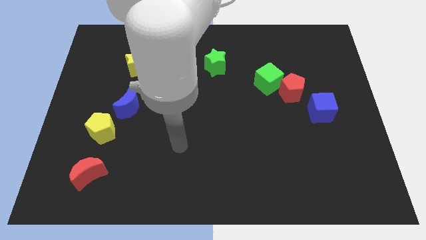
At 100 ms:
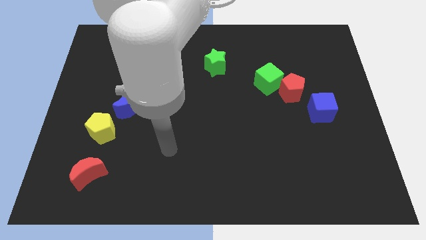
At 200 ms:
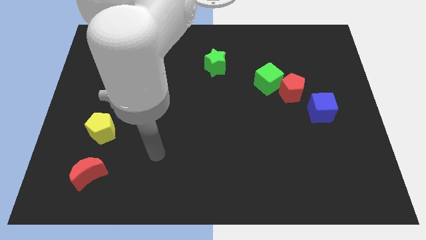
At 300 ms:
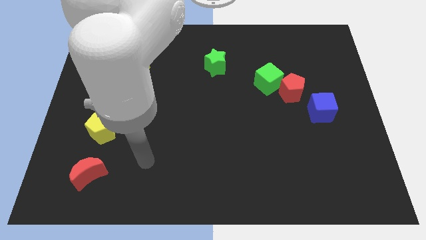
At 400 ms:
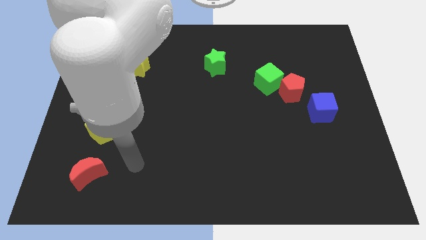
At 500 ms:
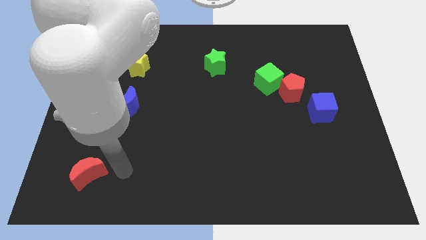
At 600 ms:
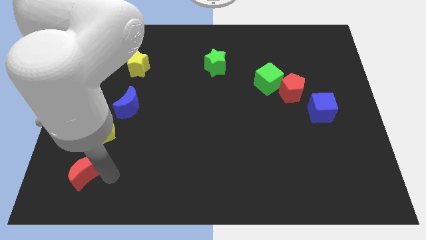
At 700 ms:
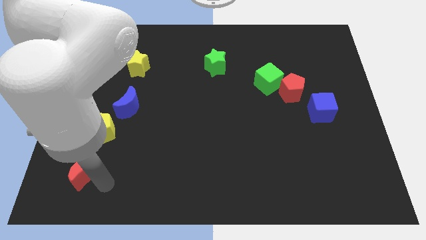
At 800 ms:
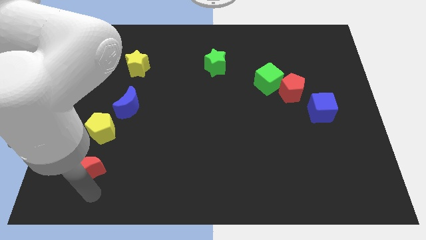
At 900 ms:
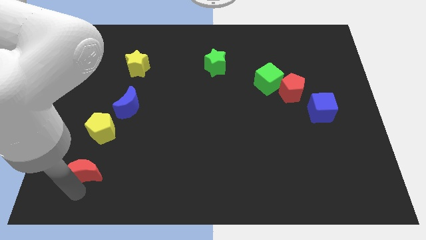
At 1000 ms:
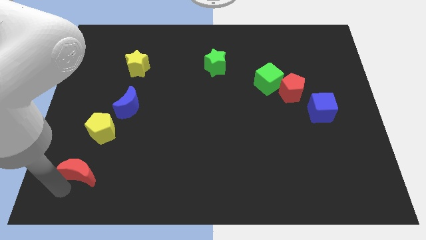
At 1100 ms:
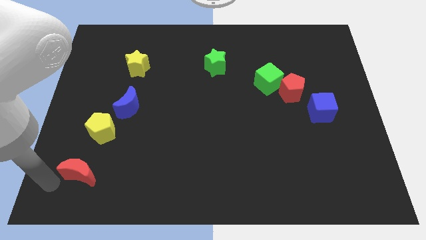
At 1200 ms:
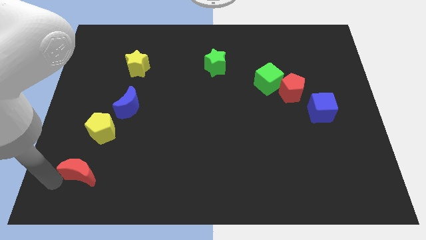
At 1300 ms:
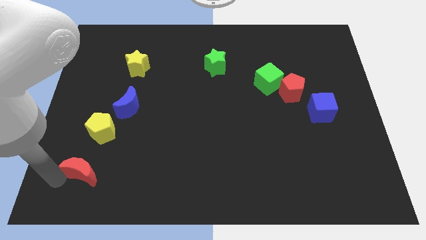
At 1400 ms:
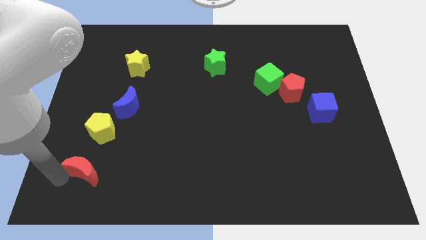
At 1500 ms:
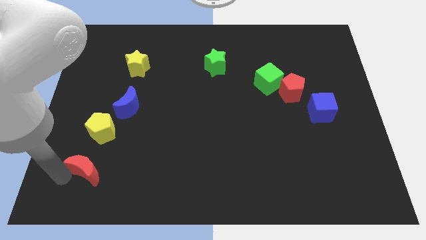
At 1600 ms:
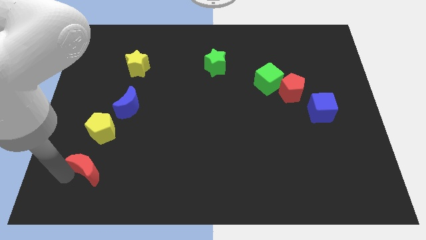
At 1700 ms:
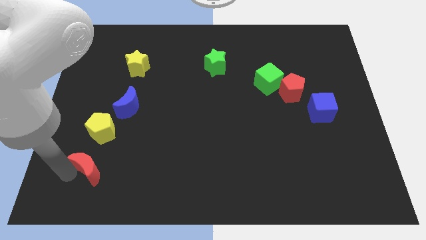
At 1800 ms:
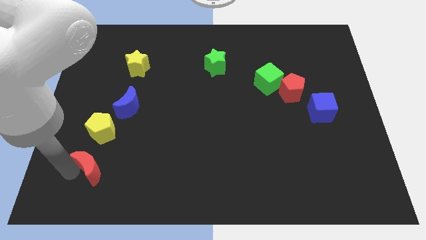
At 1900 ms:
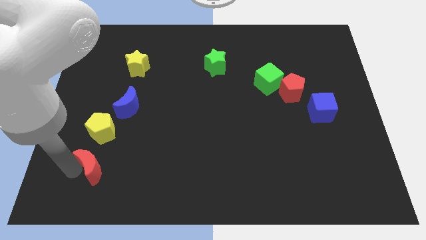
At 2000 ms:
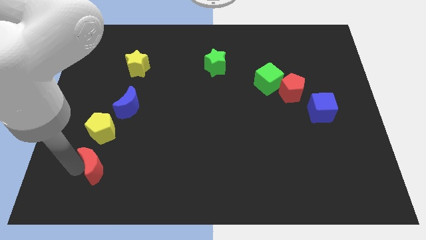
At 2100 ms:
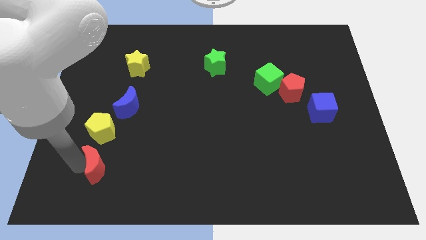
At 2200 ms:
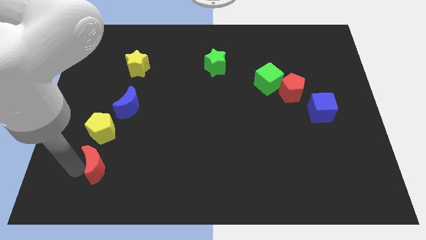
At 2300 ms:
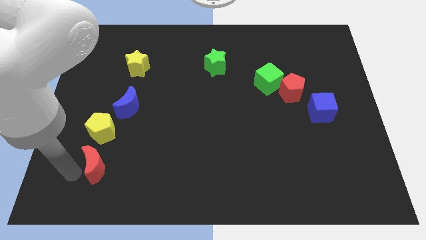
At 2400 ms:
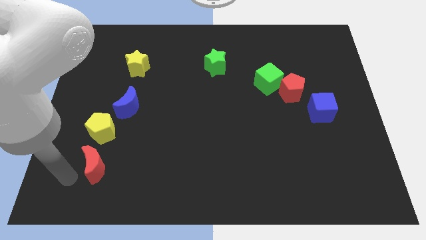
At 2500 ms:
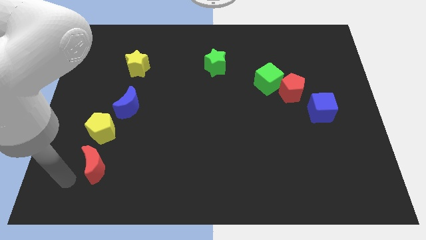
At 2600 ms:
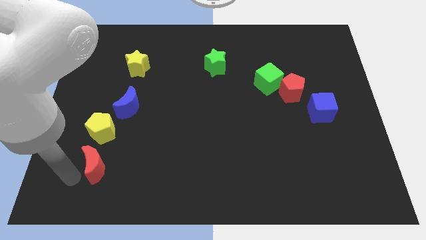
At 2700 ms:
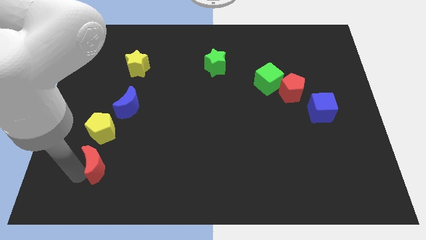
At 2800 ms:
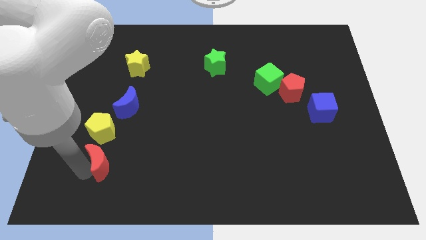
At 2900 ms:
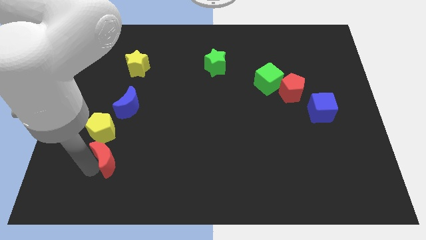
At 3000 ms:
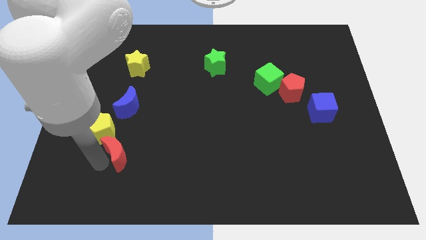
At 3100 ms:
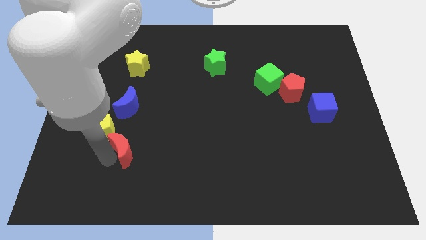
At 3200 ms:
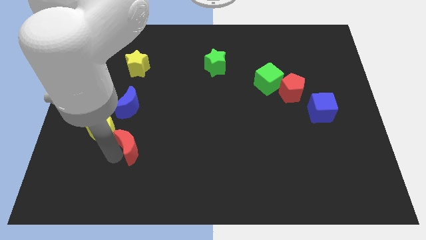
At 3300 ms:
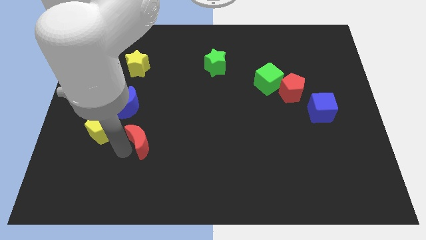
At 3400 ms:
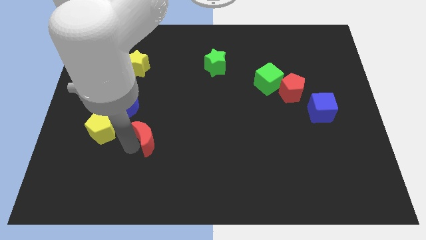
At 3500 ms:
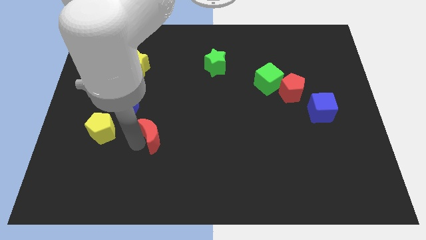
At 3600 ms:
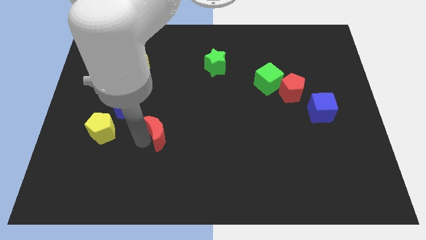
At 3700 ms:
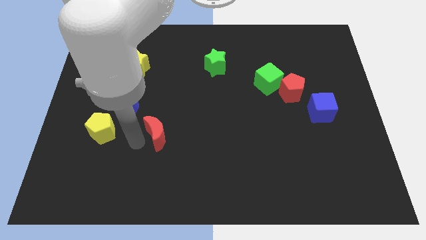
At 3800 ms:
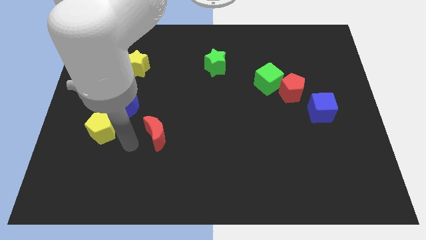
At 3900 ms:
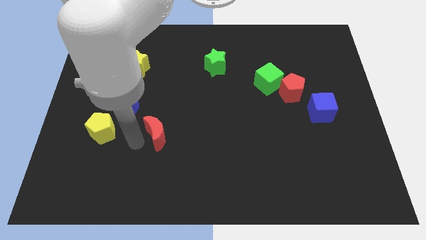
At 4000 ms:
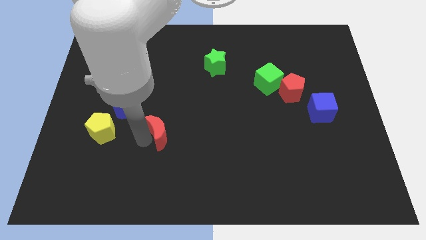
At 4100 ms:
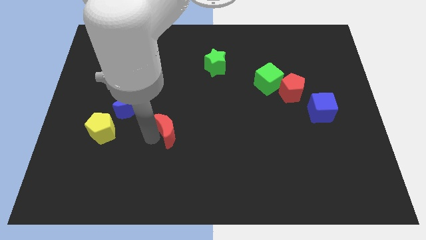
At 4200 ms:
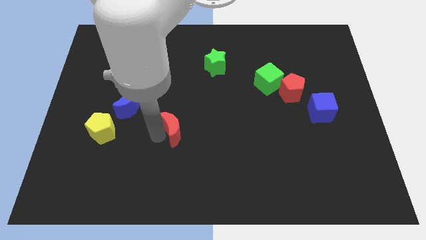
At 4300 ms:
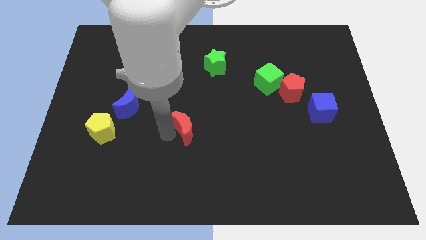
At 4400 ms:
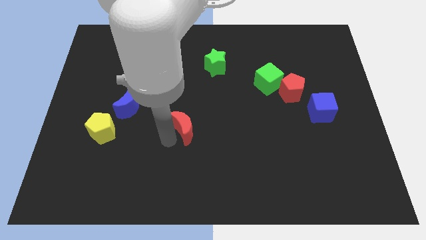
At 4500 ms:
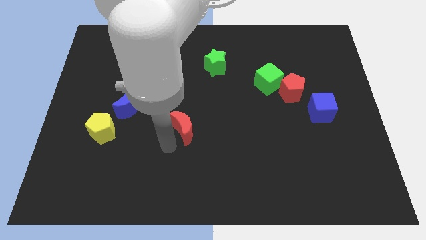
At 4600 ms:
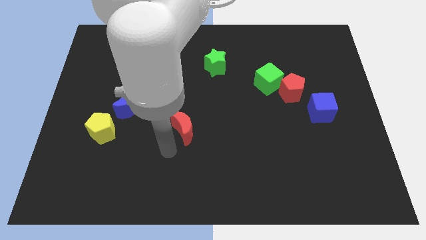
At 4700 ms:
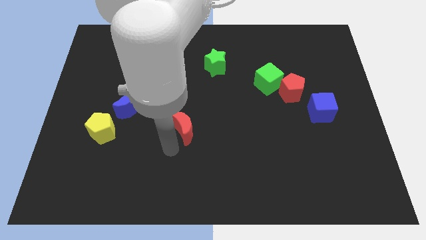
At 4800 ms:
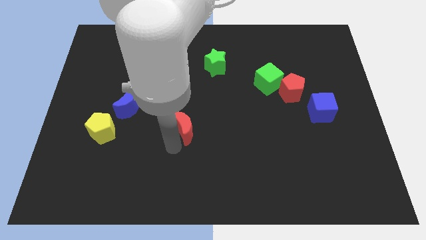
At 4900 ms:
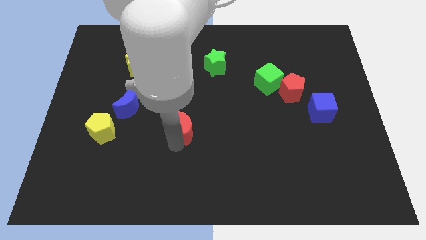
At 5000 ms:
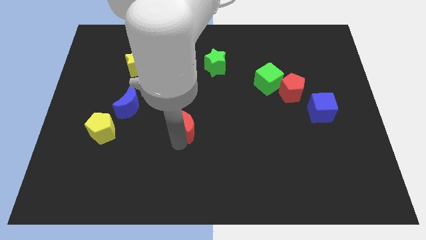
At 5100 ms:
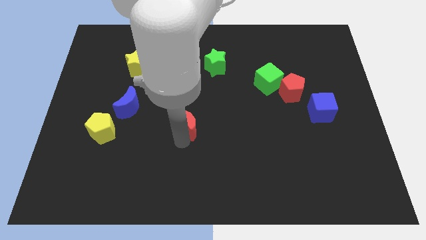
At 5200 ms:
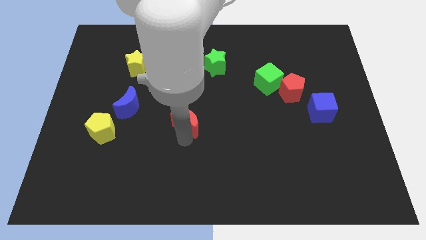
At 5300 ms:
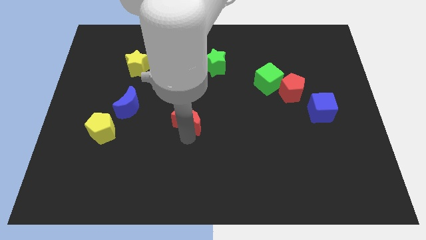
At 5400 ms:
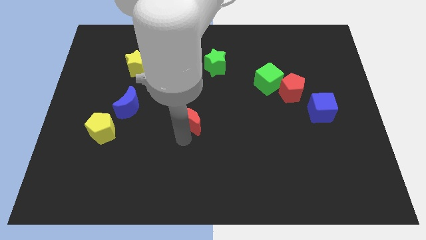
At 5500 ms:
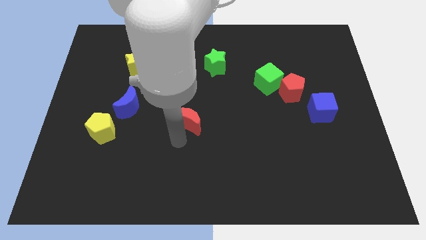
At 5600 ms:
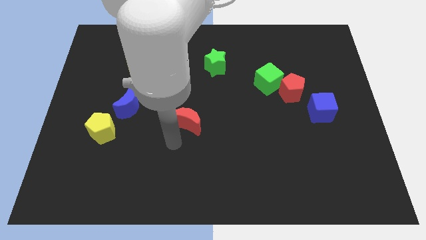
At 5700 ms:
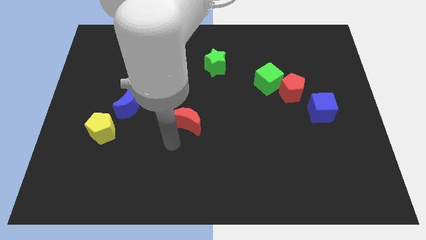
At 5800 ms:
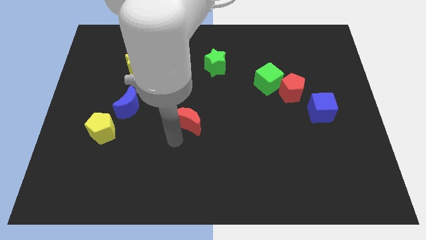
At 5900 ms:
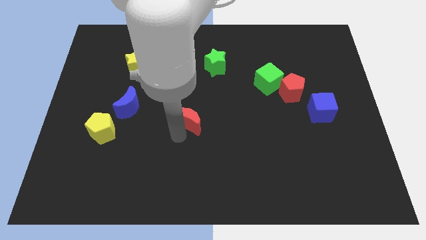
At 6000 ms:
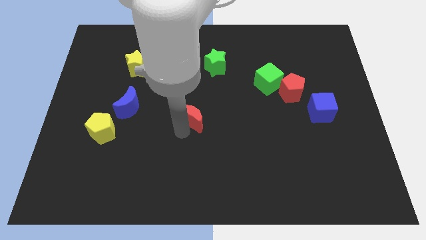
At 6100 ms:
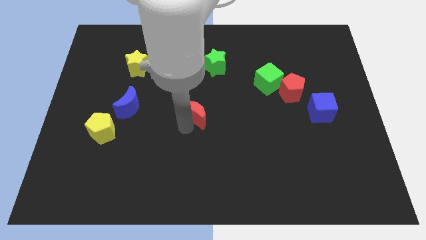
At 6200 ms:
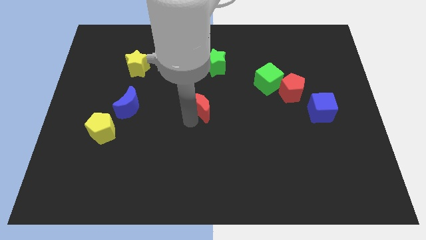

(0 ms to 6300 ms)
slide the red moon to the bottom side of the green star

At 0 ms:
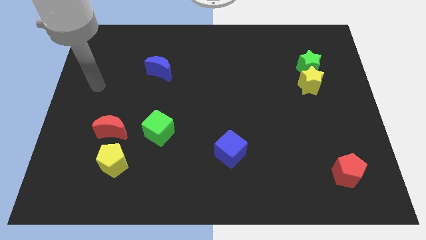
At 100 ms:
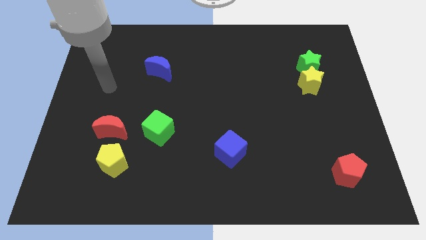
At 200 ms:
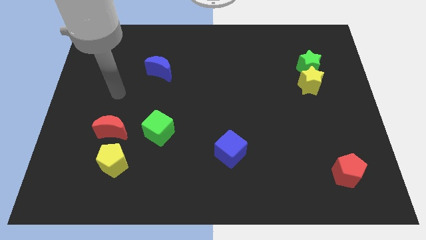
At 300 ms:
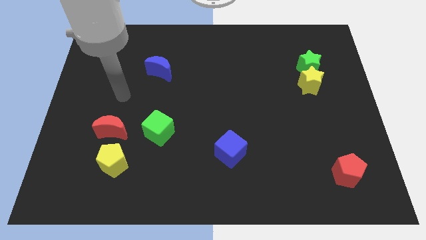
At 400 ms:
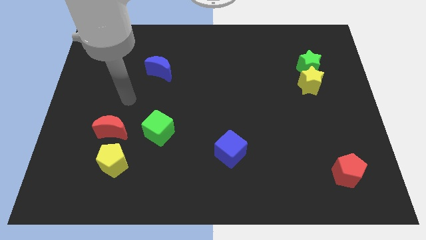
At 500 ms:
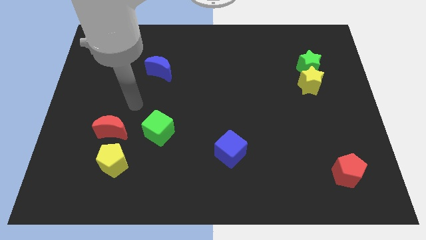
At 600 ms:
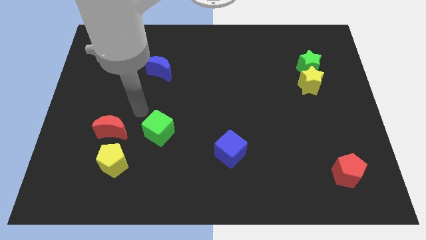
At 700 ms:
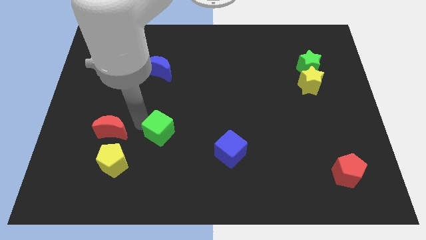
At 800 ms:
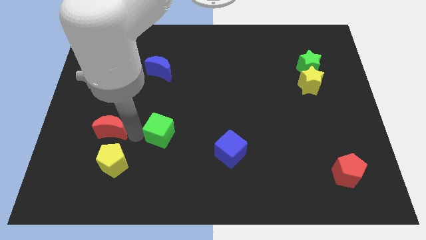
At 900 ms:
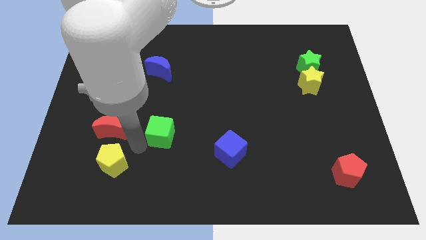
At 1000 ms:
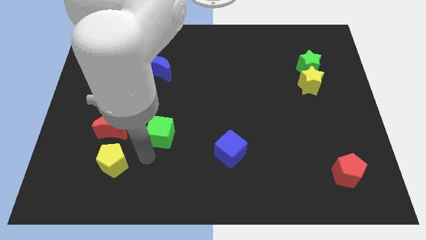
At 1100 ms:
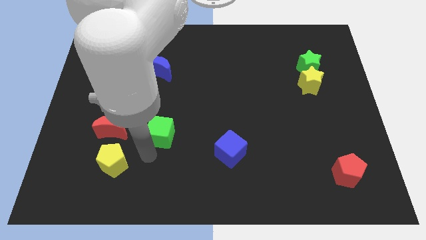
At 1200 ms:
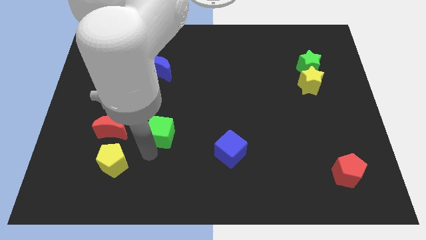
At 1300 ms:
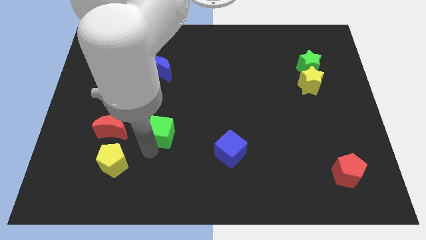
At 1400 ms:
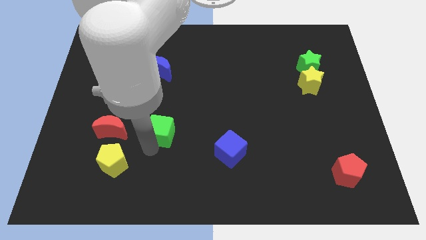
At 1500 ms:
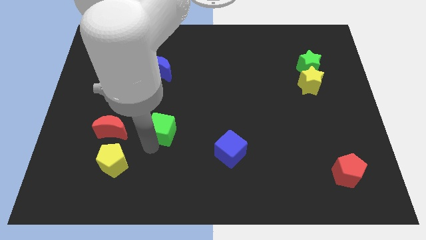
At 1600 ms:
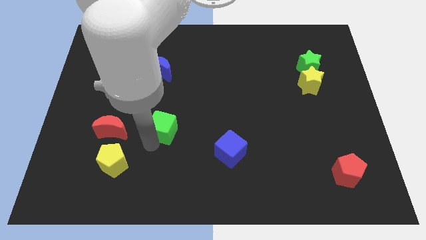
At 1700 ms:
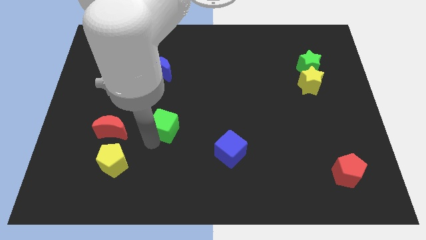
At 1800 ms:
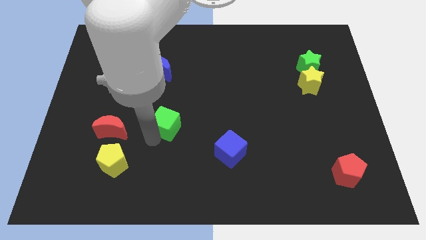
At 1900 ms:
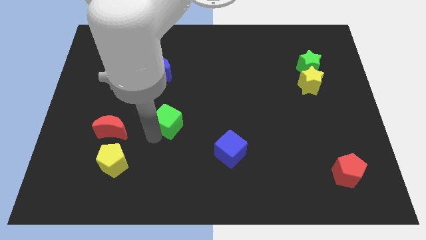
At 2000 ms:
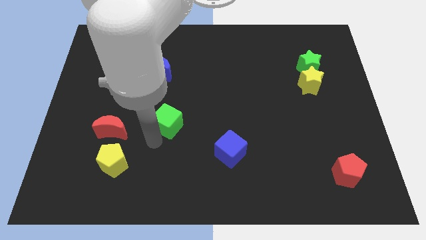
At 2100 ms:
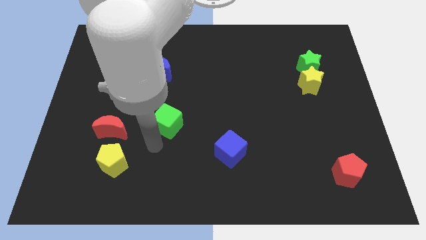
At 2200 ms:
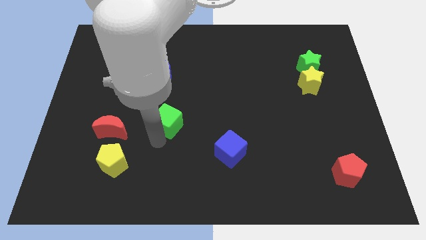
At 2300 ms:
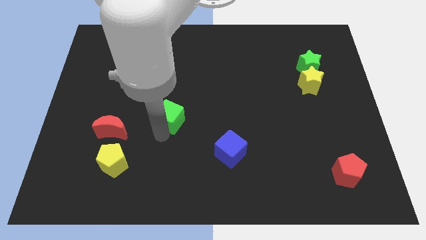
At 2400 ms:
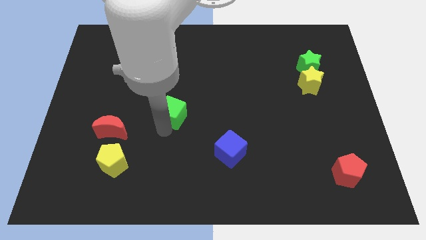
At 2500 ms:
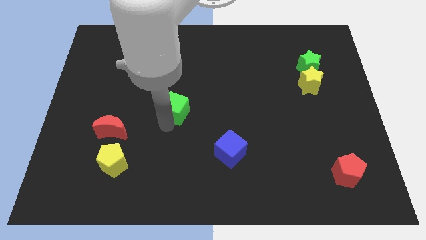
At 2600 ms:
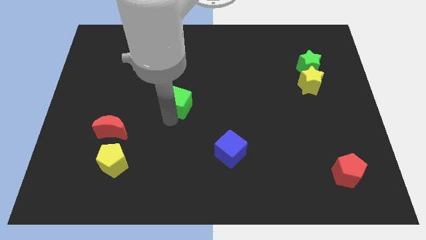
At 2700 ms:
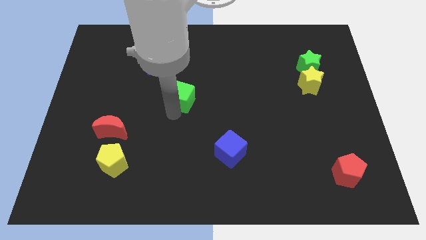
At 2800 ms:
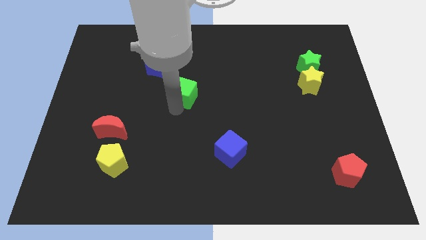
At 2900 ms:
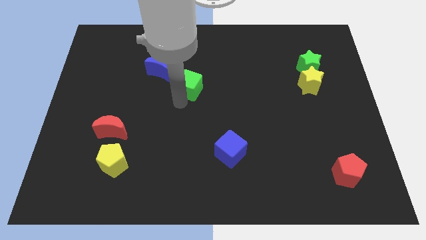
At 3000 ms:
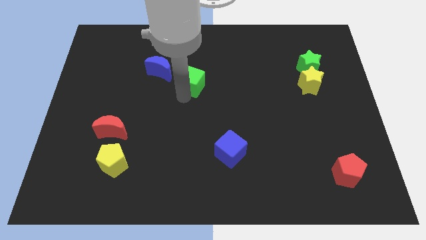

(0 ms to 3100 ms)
move the green cube just right of the blue moon
